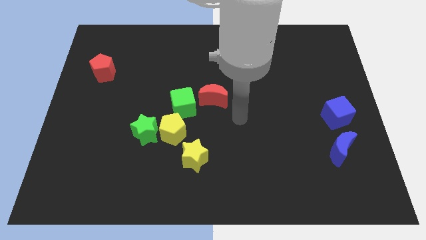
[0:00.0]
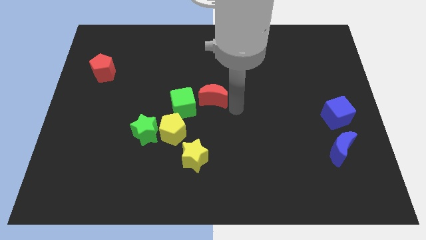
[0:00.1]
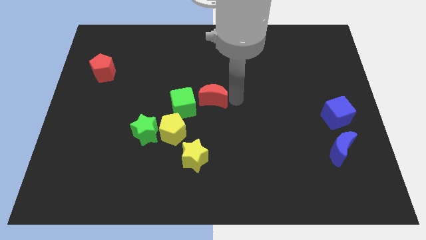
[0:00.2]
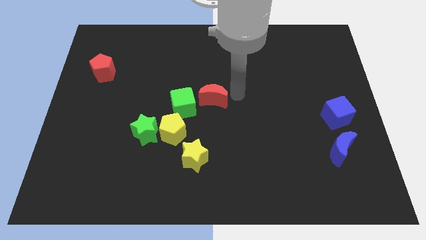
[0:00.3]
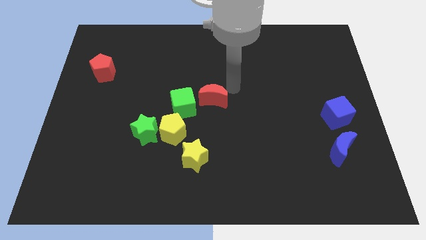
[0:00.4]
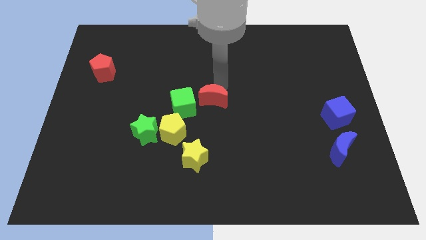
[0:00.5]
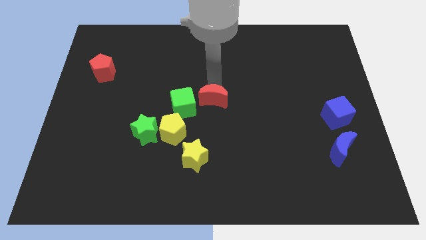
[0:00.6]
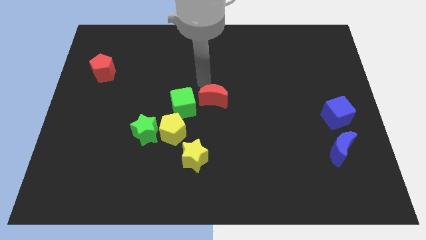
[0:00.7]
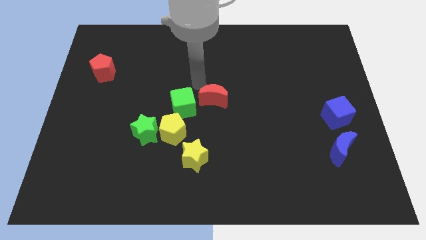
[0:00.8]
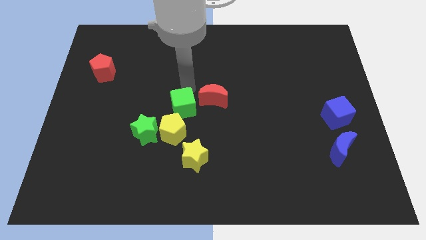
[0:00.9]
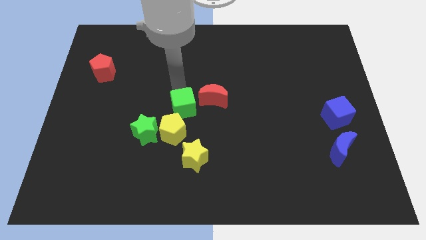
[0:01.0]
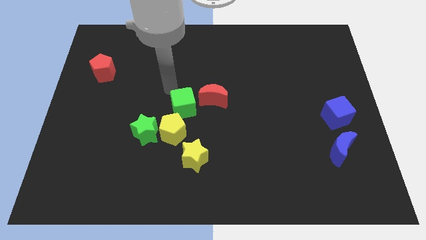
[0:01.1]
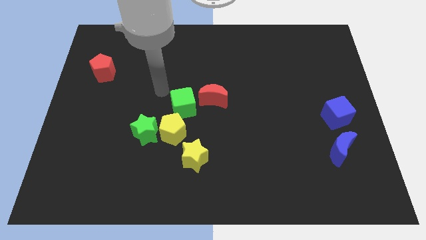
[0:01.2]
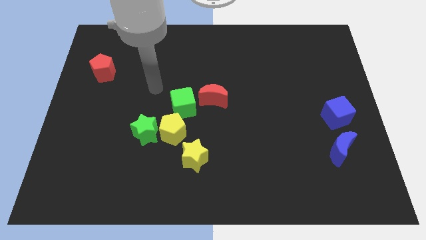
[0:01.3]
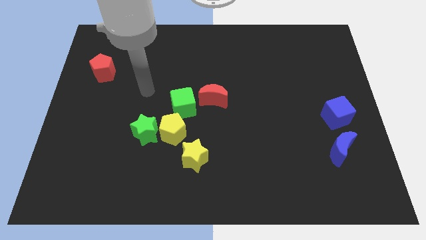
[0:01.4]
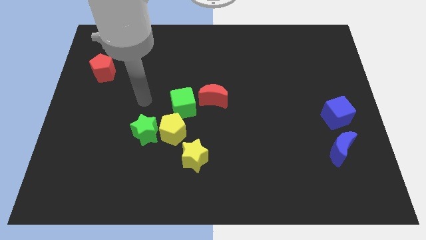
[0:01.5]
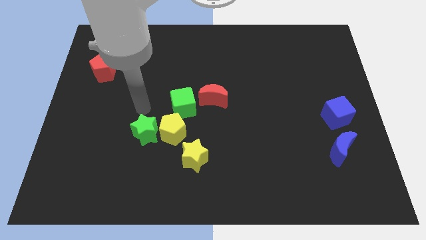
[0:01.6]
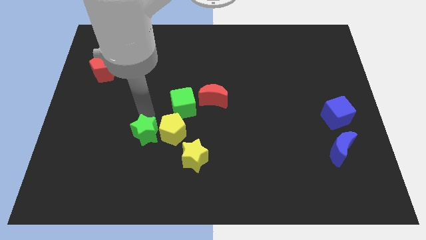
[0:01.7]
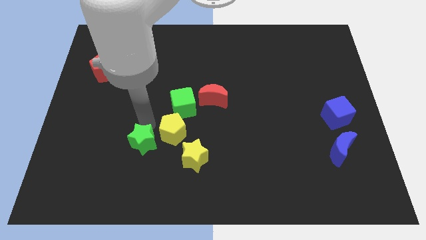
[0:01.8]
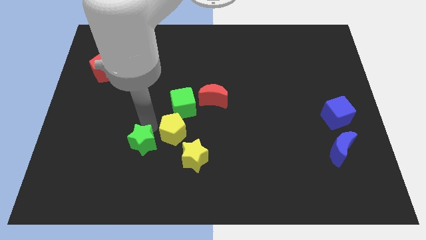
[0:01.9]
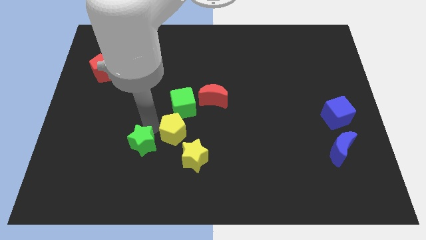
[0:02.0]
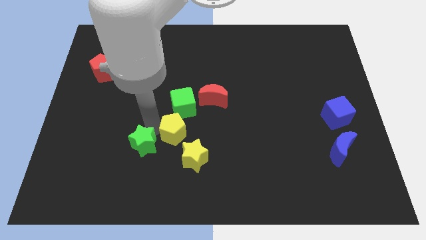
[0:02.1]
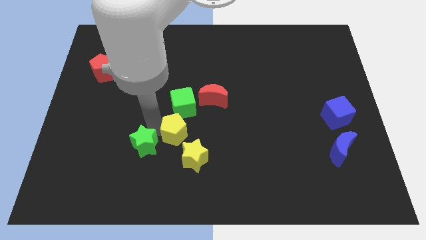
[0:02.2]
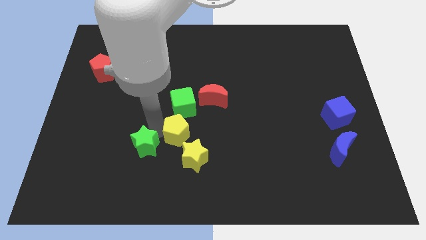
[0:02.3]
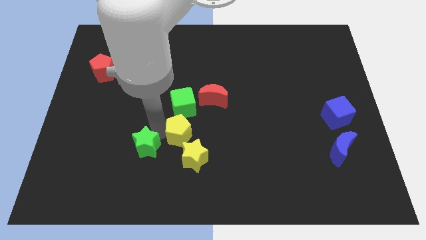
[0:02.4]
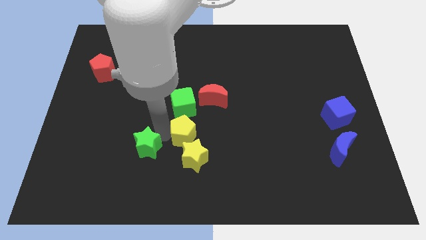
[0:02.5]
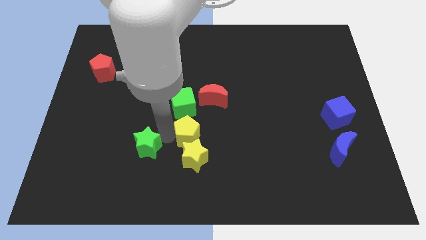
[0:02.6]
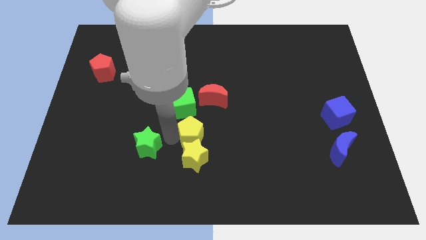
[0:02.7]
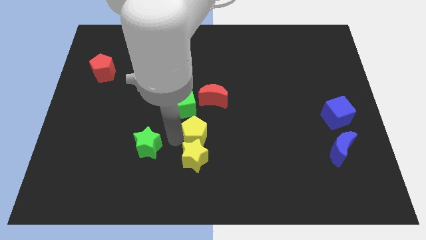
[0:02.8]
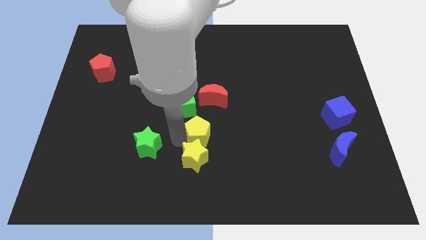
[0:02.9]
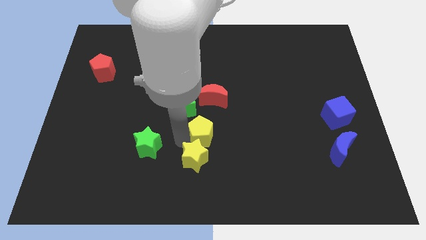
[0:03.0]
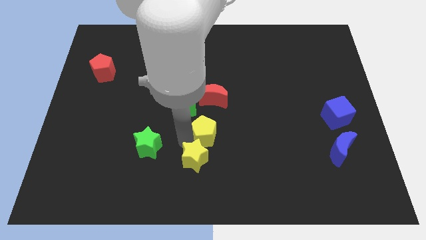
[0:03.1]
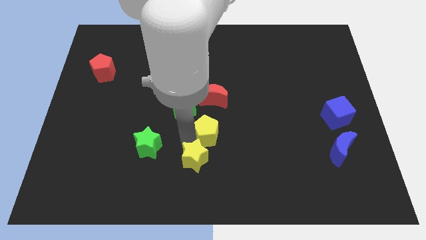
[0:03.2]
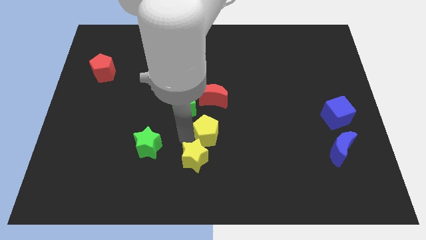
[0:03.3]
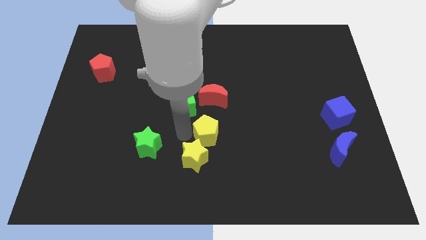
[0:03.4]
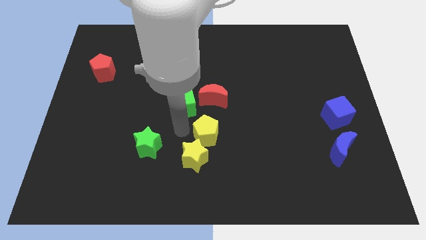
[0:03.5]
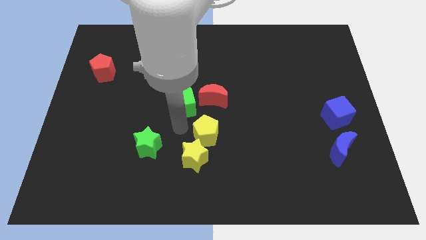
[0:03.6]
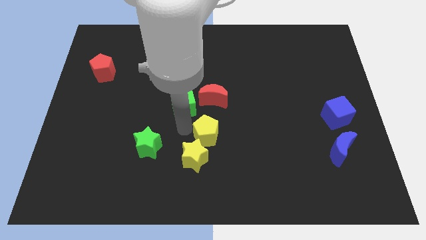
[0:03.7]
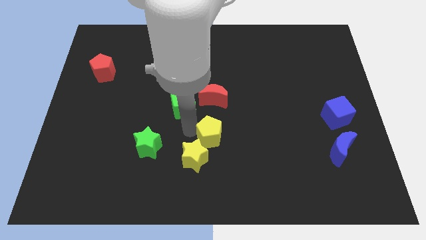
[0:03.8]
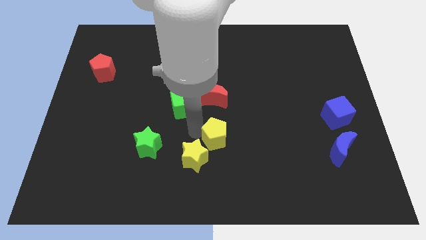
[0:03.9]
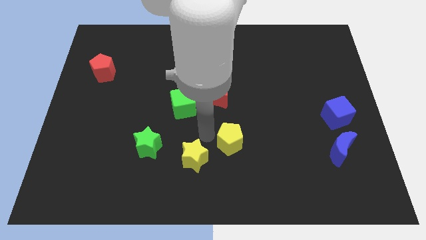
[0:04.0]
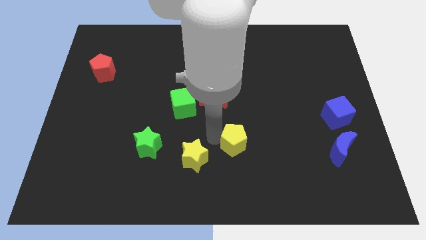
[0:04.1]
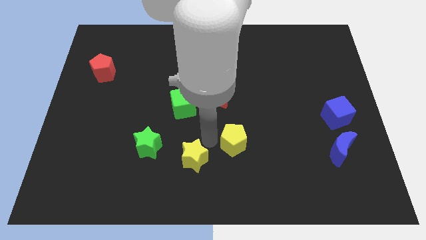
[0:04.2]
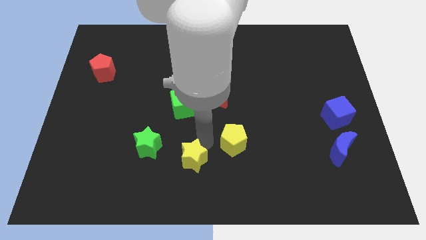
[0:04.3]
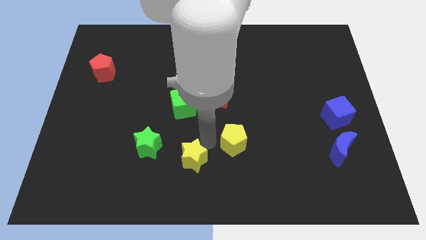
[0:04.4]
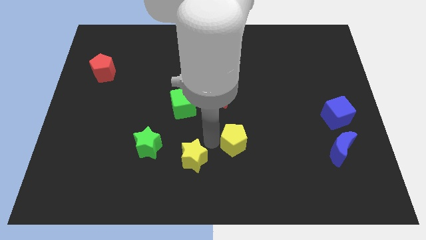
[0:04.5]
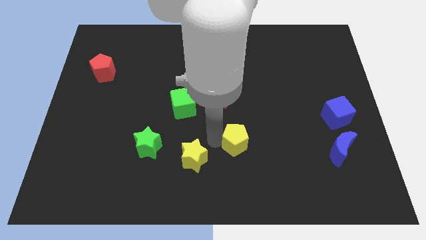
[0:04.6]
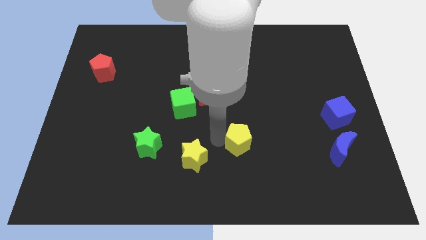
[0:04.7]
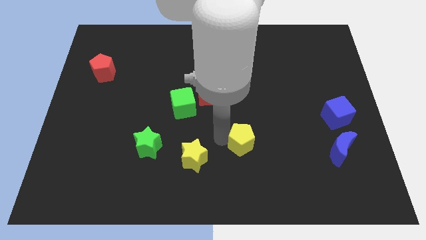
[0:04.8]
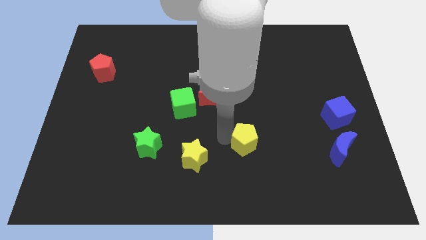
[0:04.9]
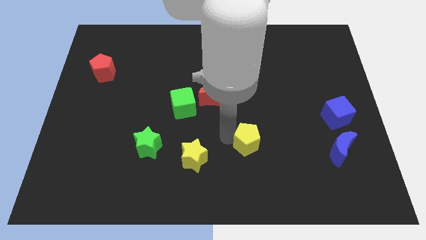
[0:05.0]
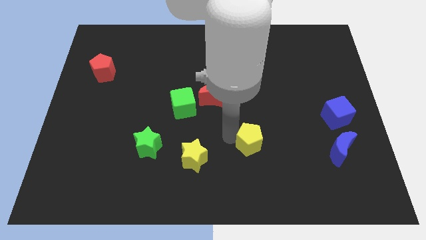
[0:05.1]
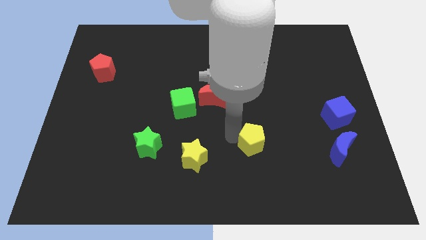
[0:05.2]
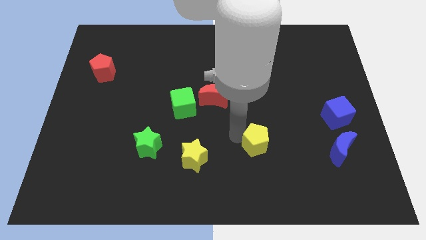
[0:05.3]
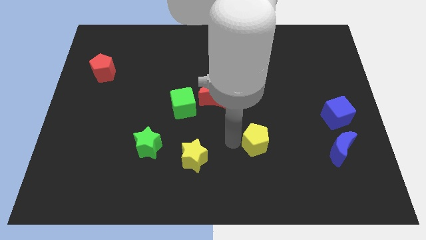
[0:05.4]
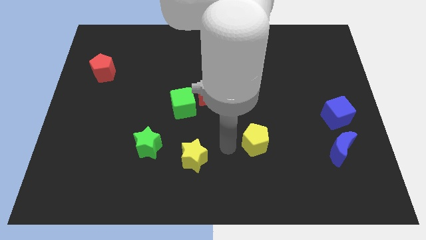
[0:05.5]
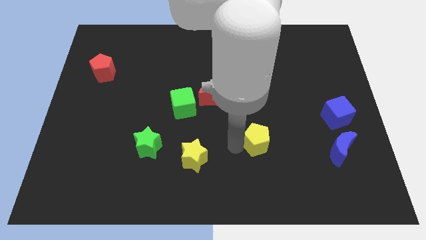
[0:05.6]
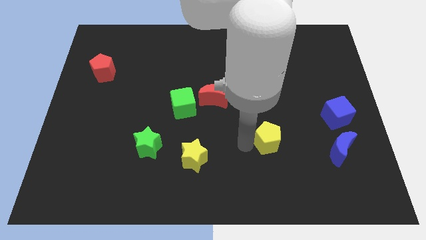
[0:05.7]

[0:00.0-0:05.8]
slide the yellow pentagon right

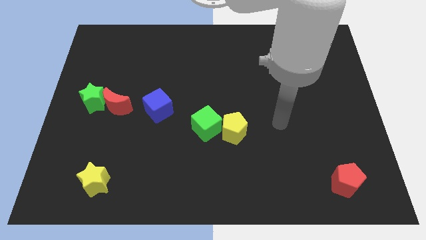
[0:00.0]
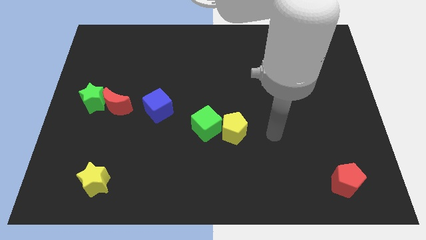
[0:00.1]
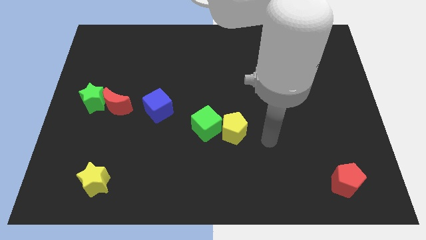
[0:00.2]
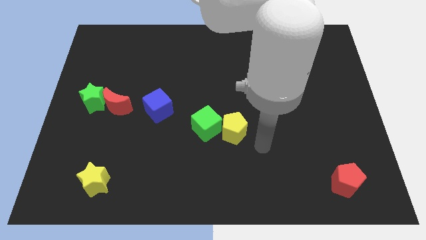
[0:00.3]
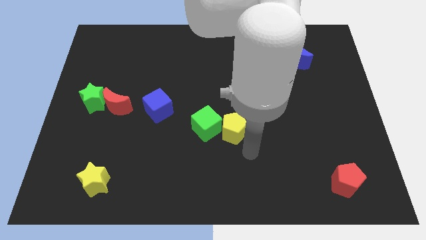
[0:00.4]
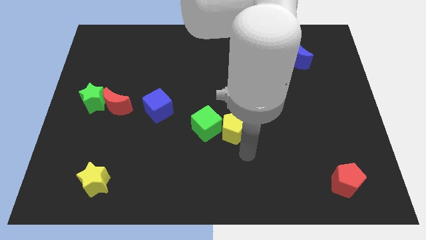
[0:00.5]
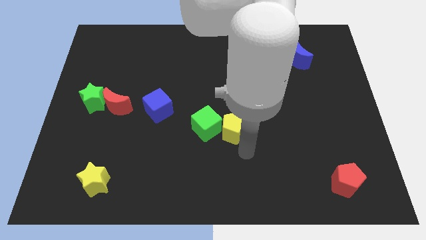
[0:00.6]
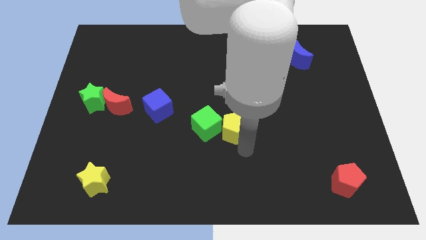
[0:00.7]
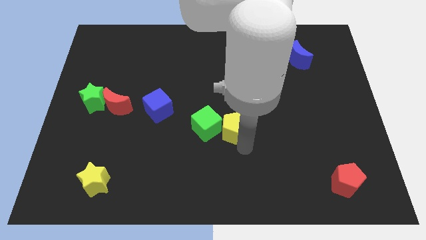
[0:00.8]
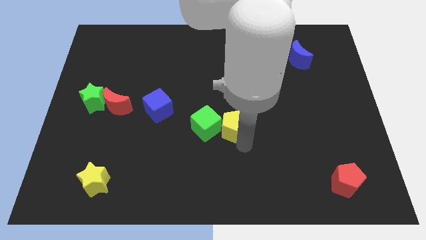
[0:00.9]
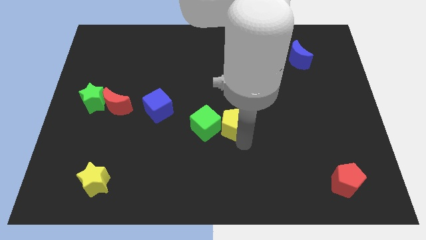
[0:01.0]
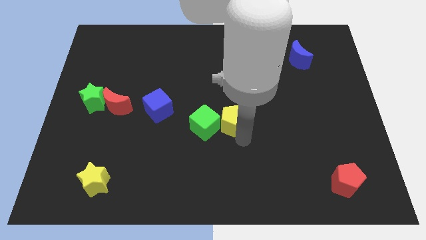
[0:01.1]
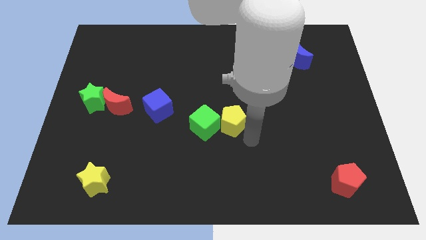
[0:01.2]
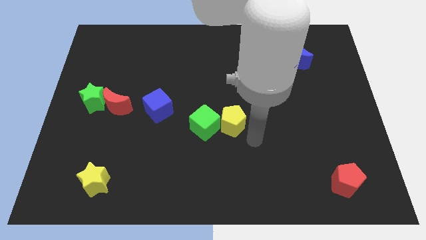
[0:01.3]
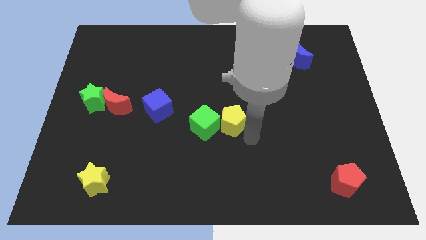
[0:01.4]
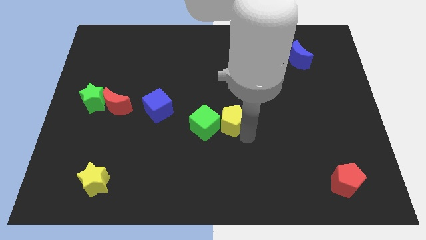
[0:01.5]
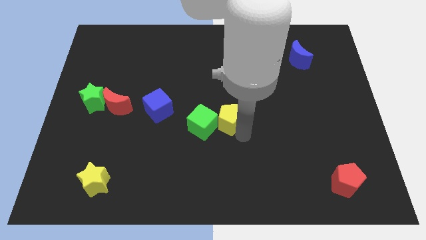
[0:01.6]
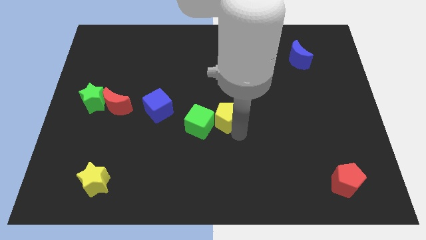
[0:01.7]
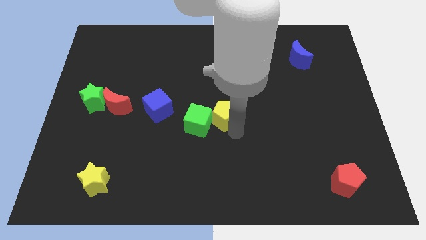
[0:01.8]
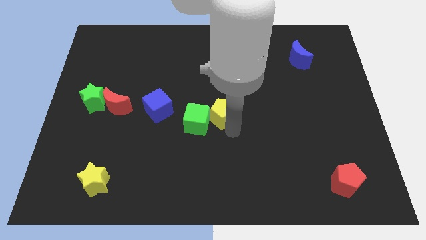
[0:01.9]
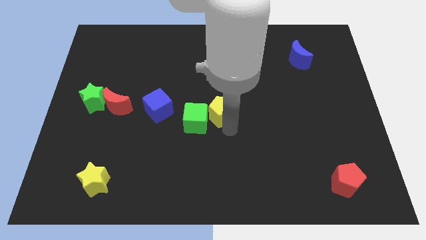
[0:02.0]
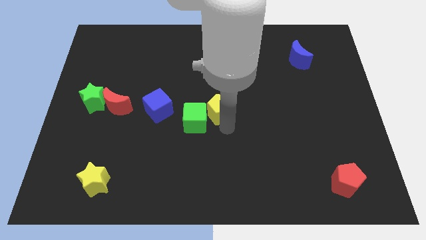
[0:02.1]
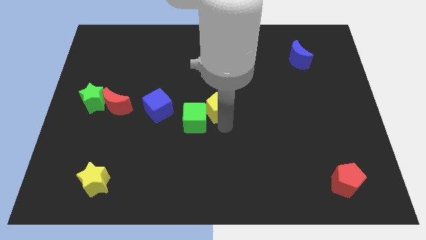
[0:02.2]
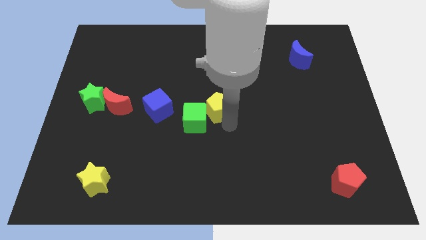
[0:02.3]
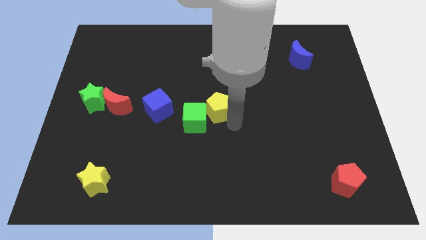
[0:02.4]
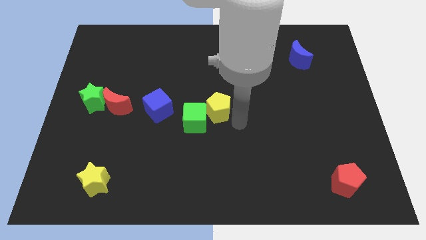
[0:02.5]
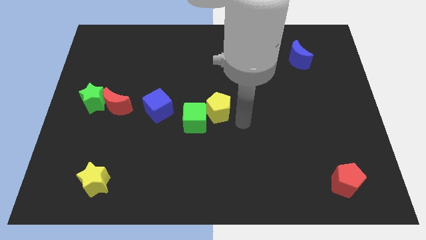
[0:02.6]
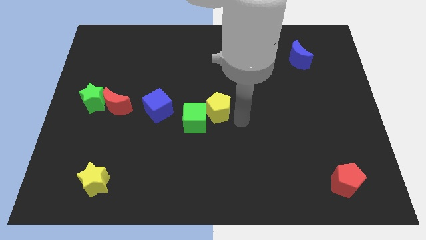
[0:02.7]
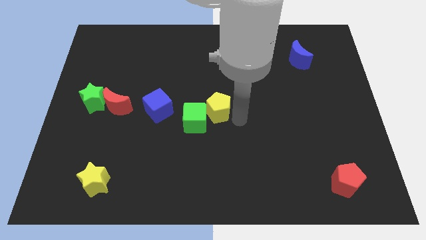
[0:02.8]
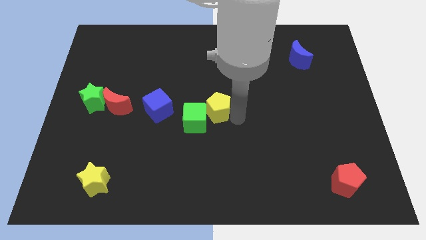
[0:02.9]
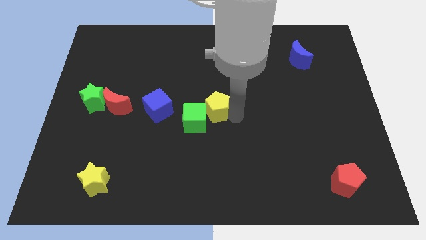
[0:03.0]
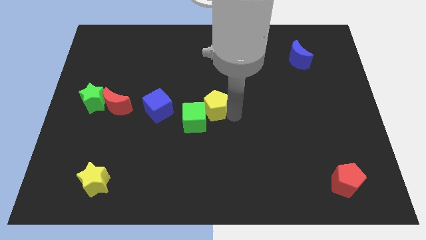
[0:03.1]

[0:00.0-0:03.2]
move the yellow pentagon slightly up and left
